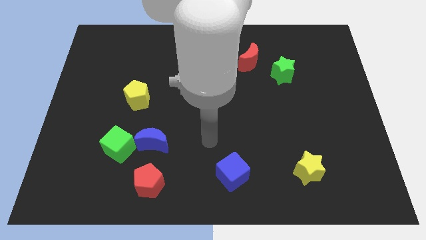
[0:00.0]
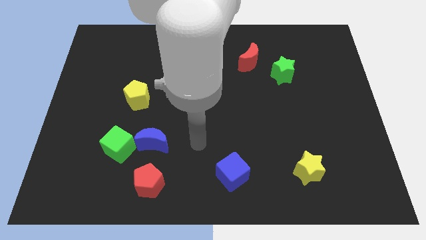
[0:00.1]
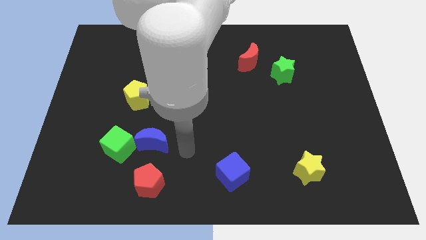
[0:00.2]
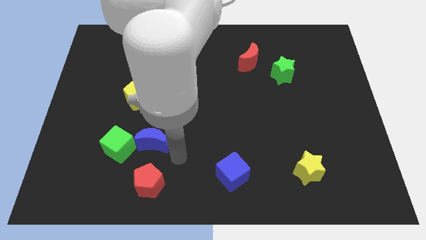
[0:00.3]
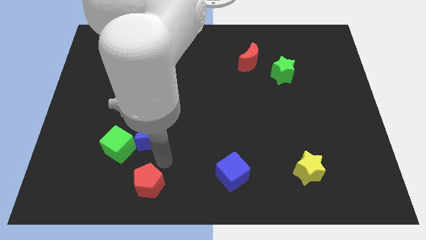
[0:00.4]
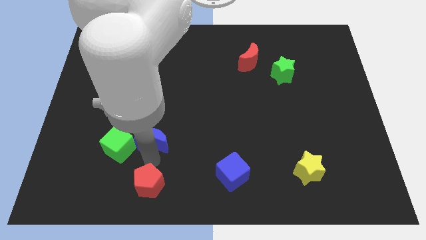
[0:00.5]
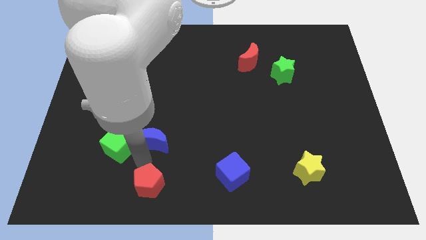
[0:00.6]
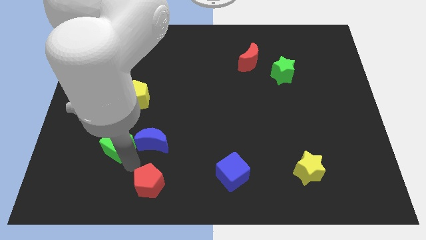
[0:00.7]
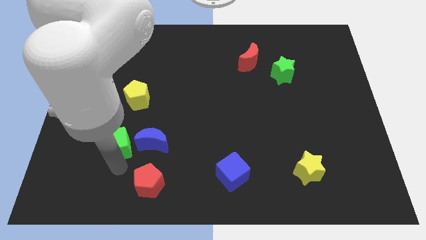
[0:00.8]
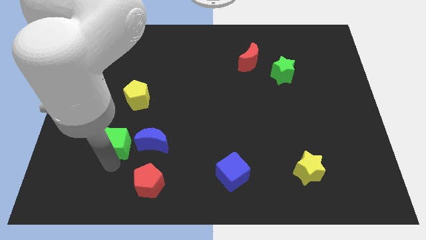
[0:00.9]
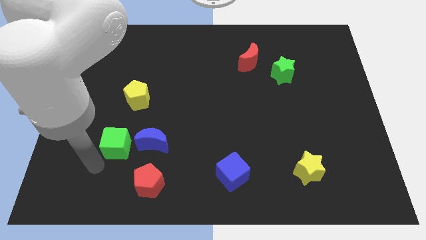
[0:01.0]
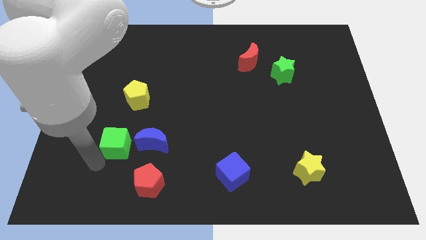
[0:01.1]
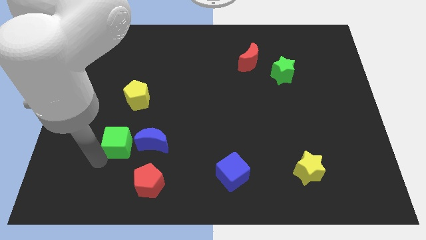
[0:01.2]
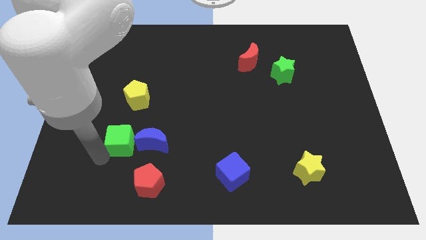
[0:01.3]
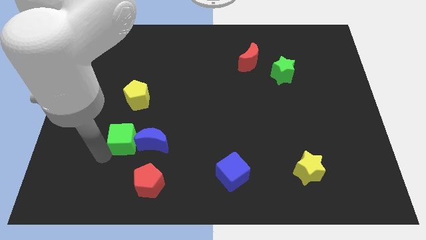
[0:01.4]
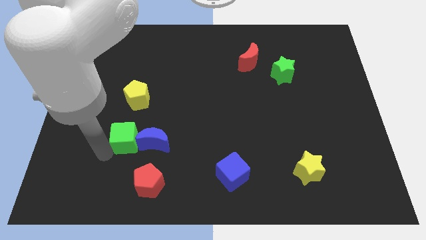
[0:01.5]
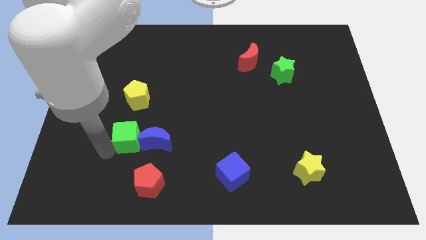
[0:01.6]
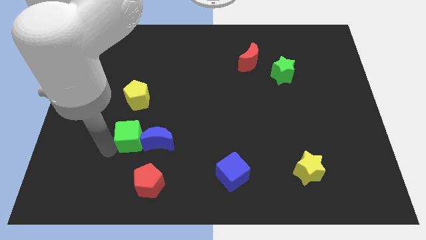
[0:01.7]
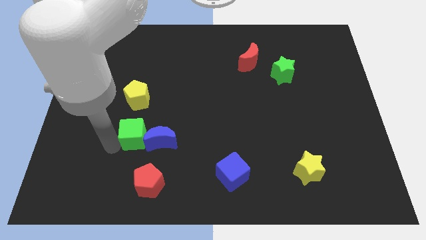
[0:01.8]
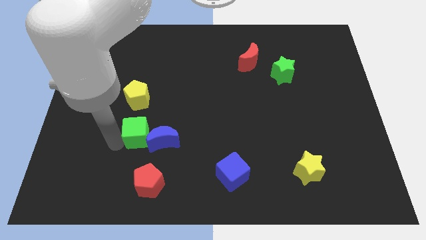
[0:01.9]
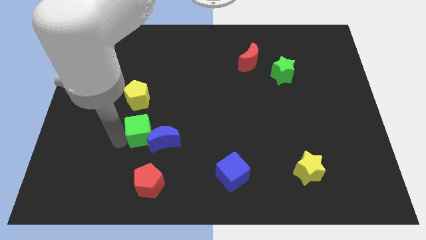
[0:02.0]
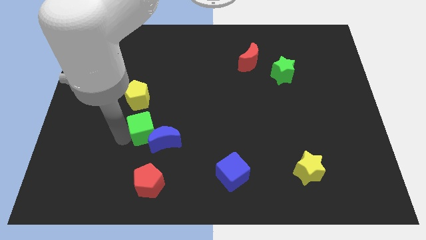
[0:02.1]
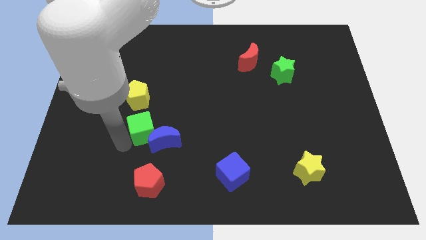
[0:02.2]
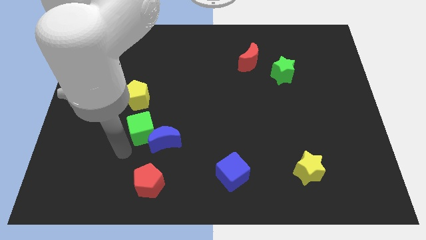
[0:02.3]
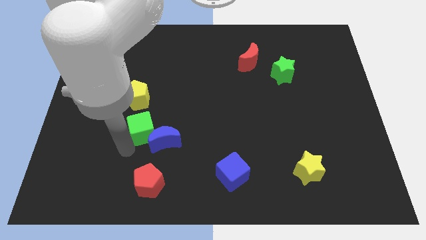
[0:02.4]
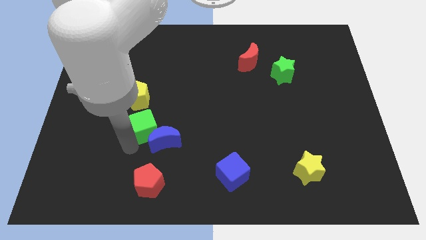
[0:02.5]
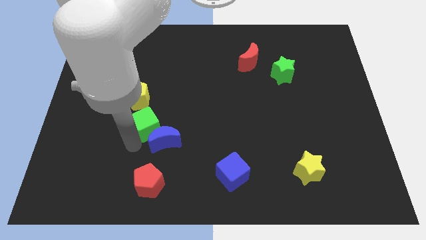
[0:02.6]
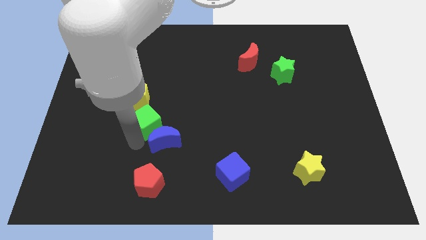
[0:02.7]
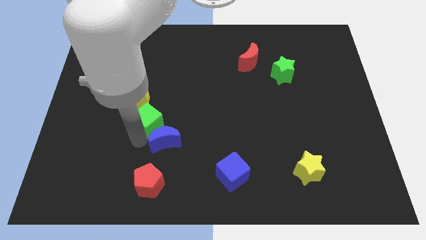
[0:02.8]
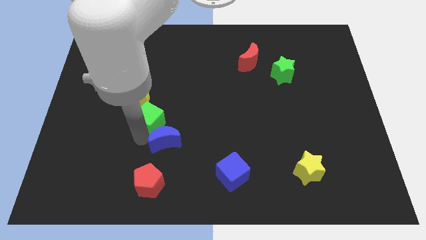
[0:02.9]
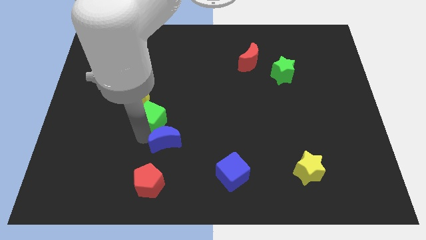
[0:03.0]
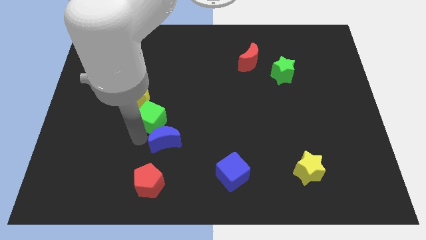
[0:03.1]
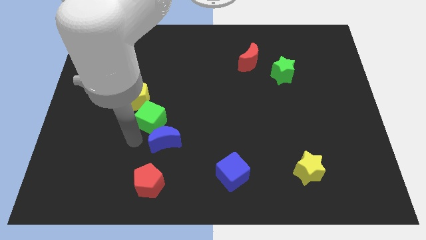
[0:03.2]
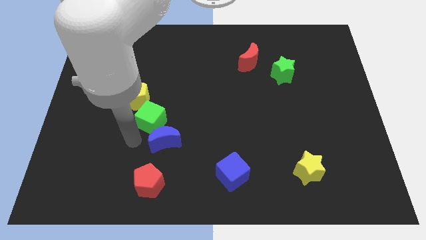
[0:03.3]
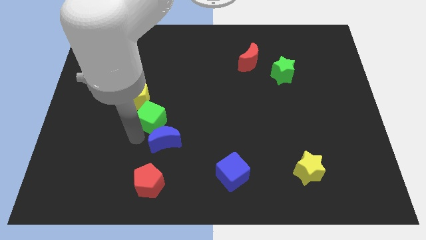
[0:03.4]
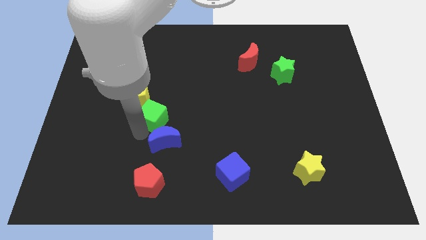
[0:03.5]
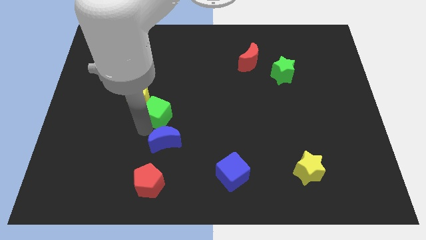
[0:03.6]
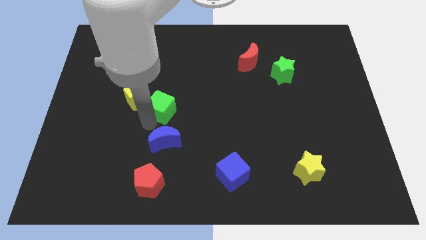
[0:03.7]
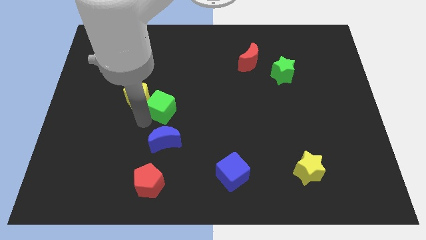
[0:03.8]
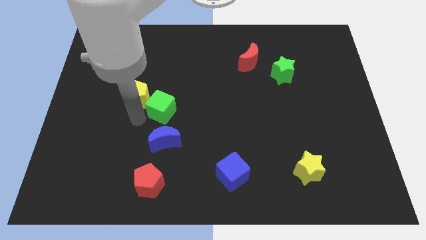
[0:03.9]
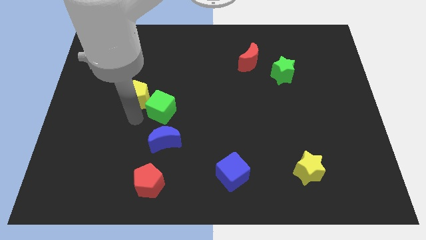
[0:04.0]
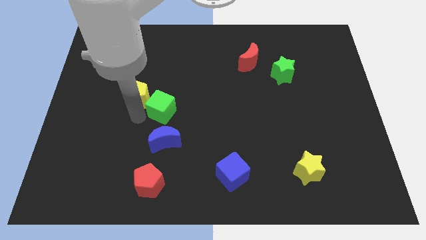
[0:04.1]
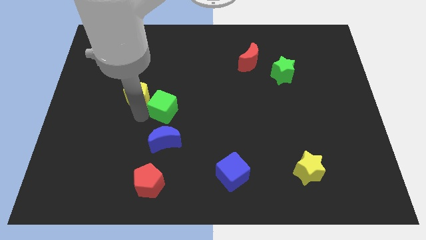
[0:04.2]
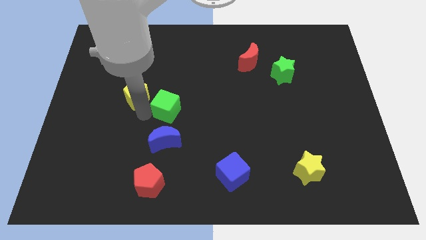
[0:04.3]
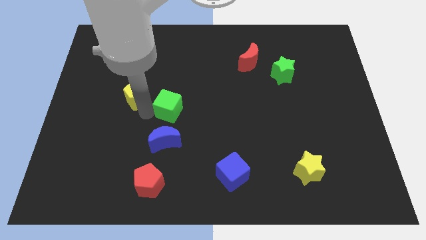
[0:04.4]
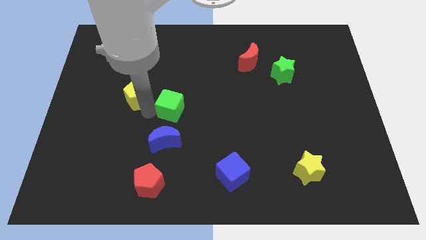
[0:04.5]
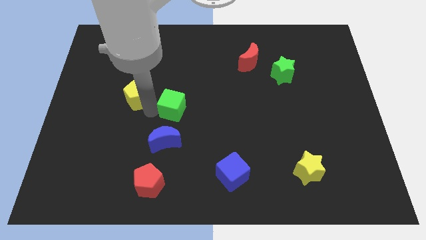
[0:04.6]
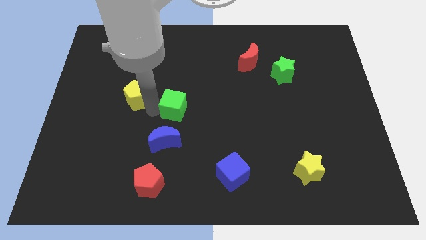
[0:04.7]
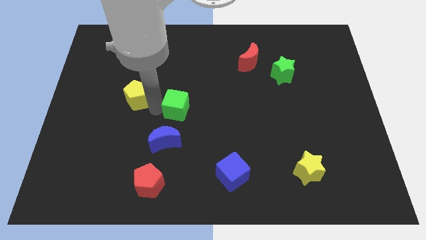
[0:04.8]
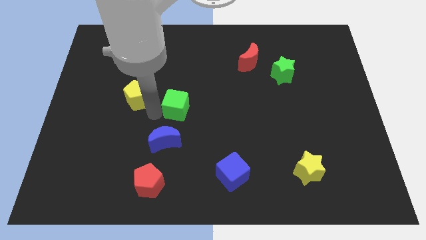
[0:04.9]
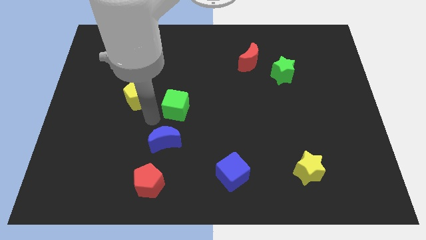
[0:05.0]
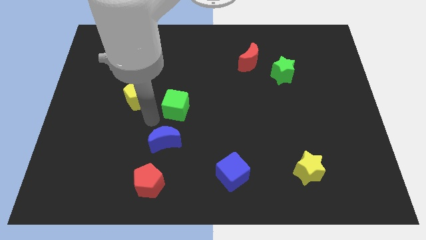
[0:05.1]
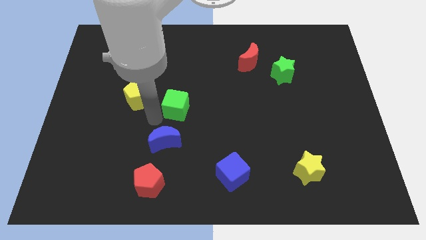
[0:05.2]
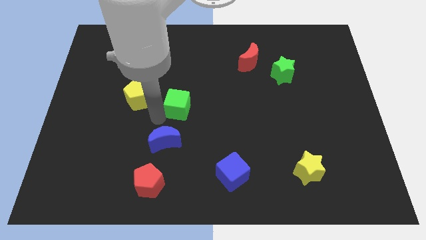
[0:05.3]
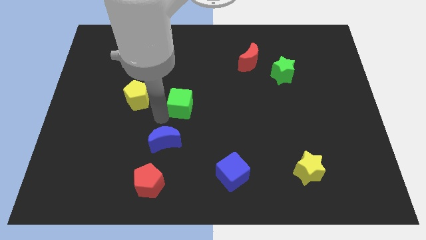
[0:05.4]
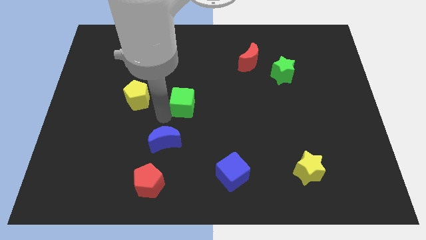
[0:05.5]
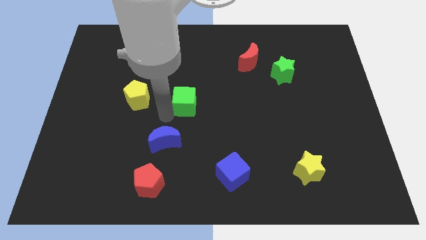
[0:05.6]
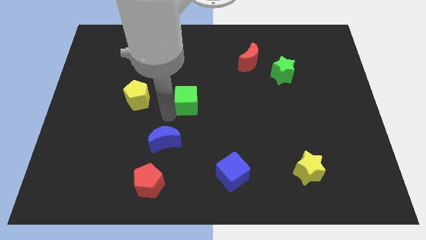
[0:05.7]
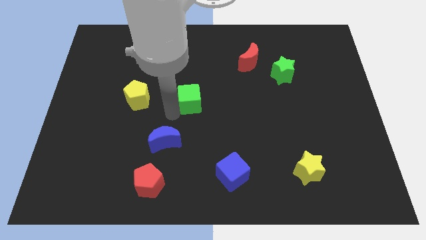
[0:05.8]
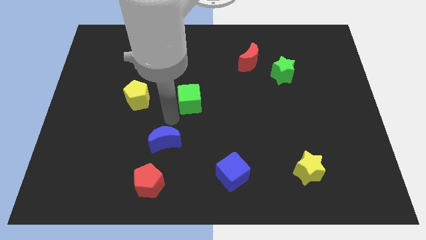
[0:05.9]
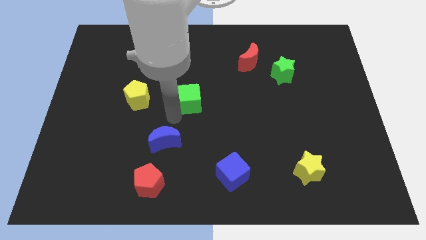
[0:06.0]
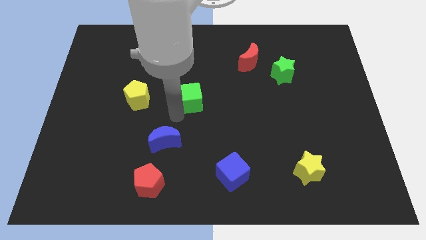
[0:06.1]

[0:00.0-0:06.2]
slide the green cube upwards and then to the right

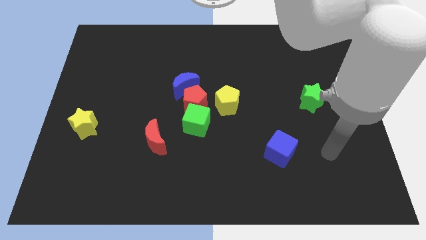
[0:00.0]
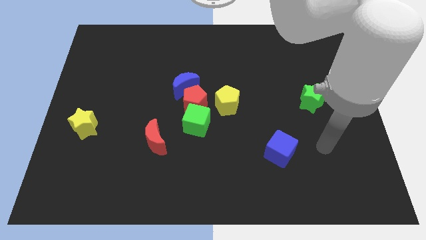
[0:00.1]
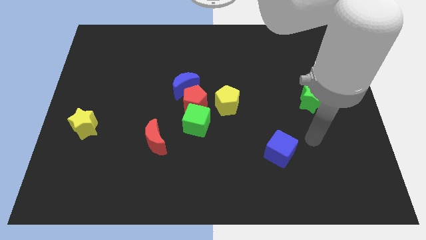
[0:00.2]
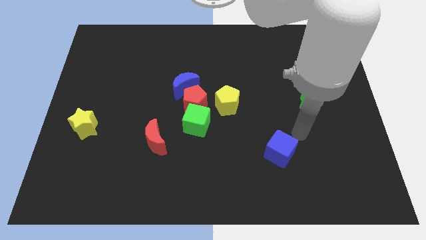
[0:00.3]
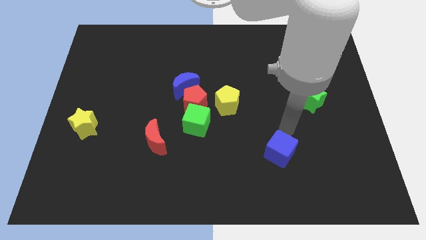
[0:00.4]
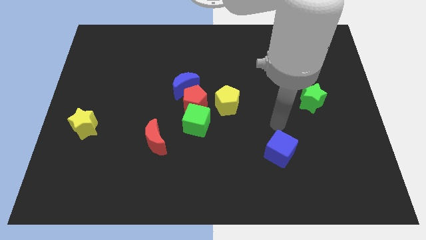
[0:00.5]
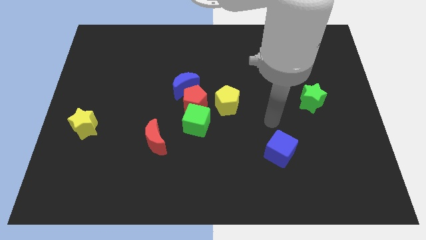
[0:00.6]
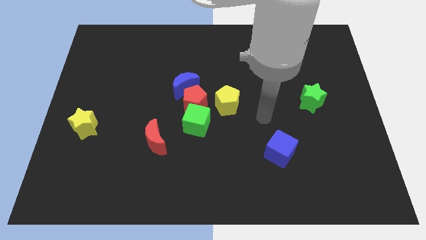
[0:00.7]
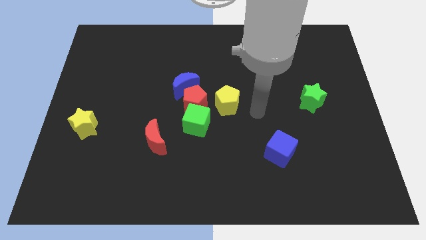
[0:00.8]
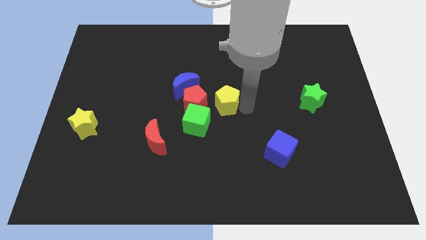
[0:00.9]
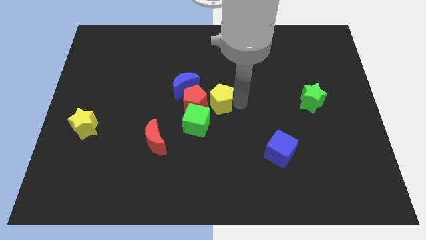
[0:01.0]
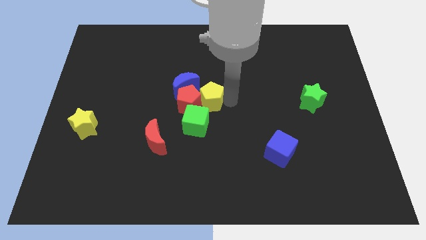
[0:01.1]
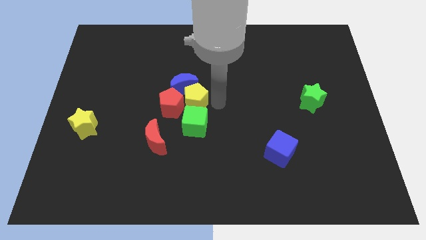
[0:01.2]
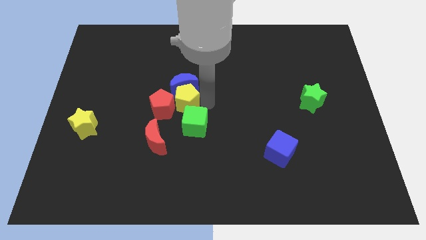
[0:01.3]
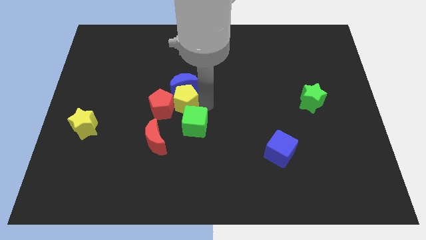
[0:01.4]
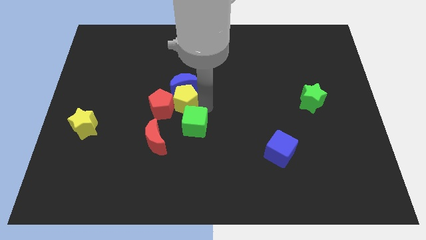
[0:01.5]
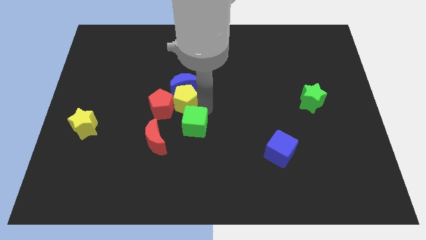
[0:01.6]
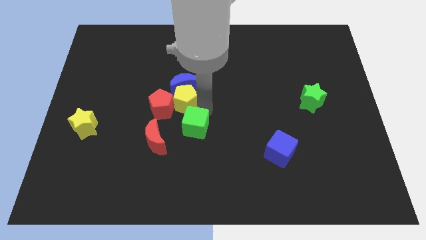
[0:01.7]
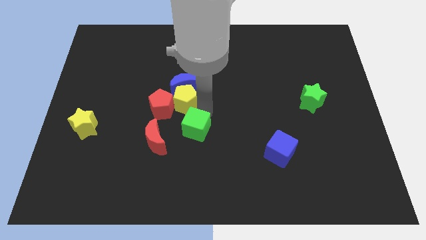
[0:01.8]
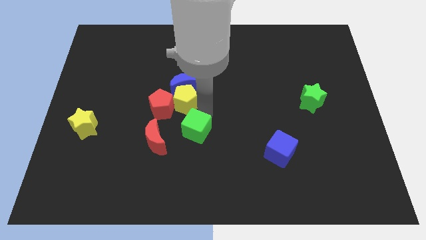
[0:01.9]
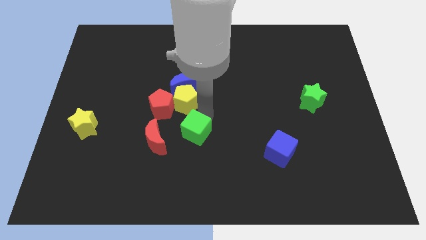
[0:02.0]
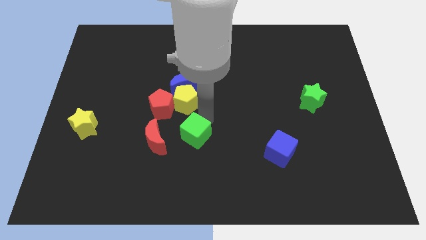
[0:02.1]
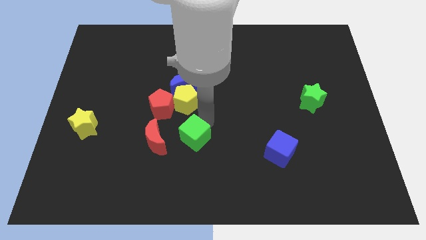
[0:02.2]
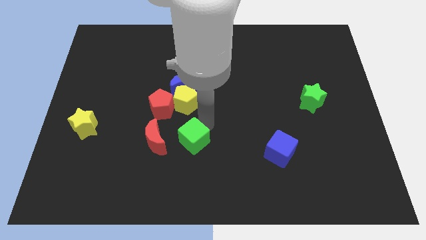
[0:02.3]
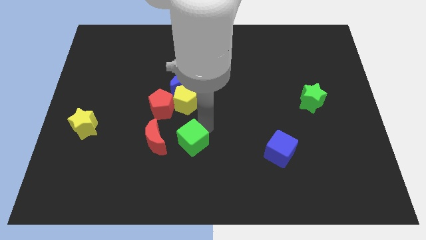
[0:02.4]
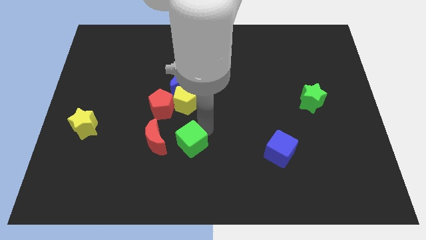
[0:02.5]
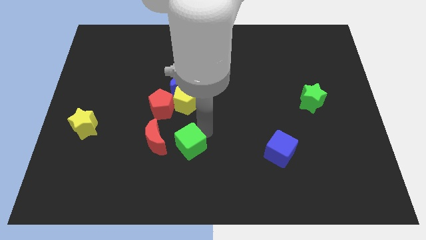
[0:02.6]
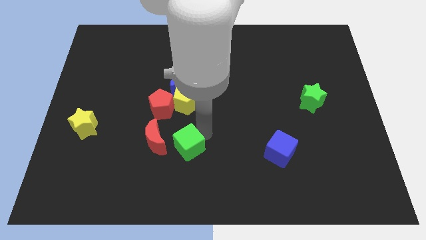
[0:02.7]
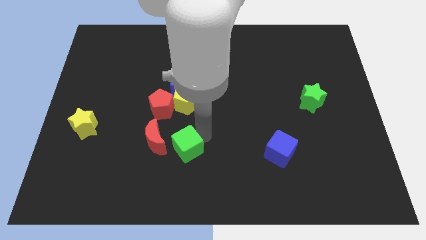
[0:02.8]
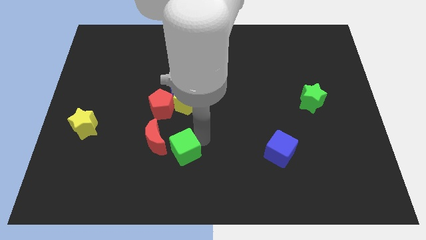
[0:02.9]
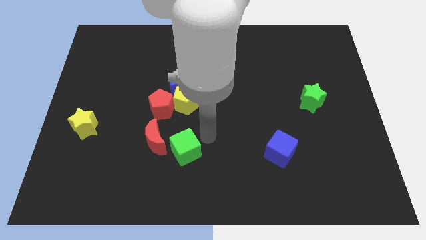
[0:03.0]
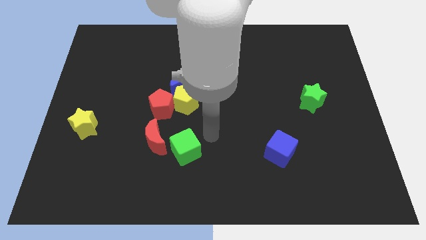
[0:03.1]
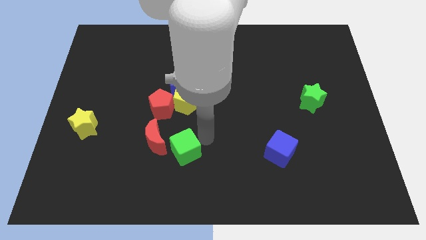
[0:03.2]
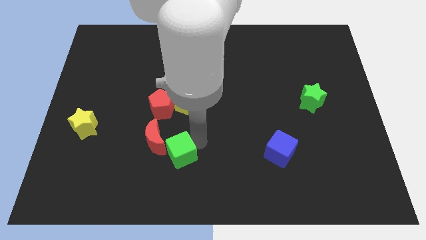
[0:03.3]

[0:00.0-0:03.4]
slide the green cube a bit down and left
